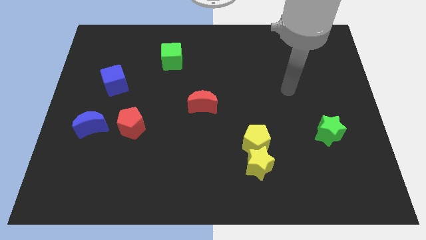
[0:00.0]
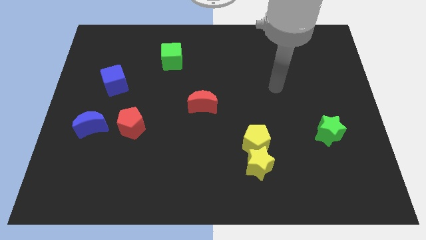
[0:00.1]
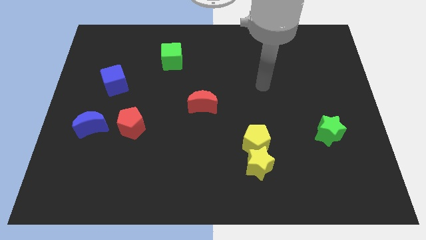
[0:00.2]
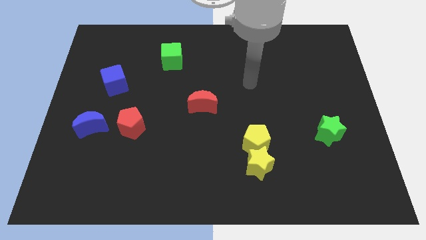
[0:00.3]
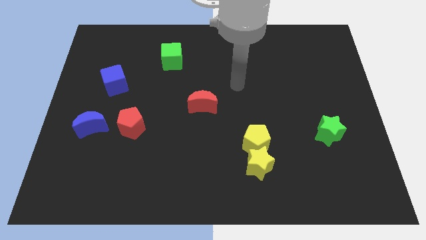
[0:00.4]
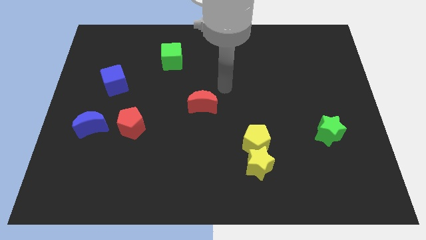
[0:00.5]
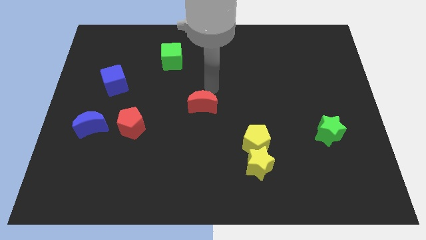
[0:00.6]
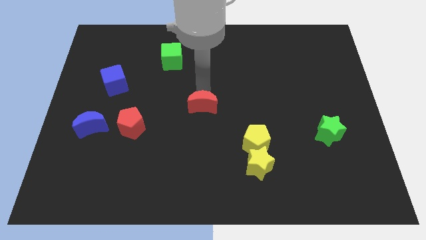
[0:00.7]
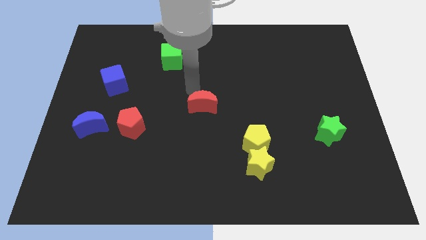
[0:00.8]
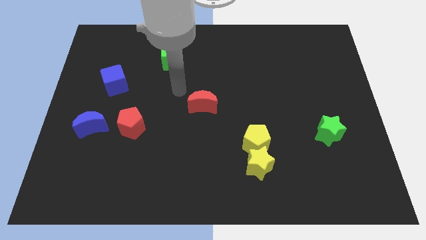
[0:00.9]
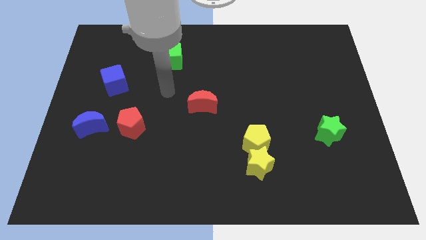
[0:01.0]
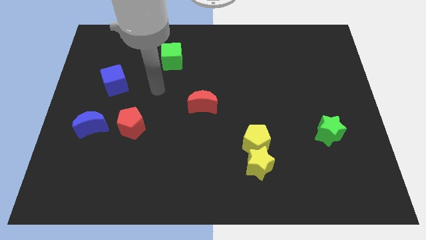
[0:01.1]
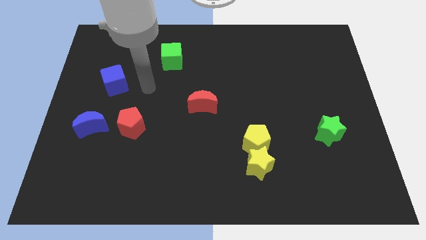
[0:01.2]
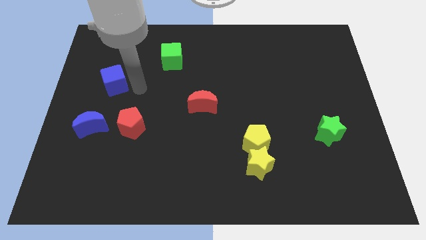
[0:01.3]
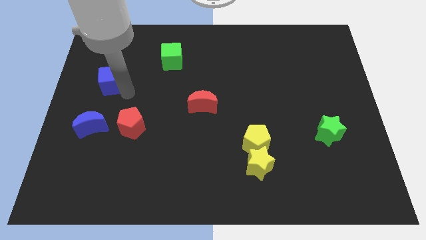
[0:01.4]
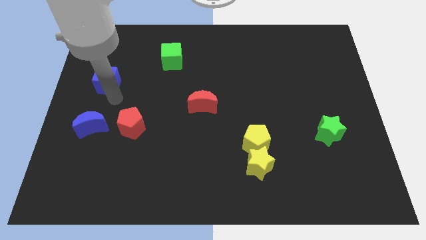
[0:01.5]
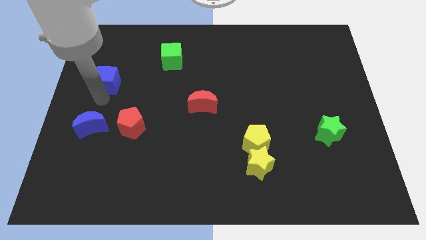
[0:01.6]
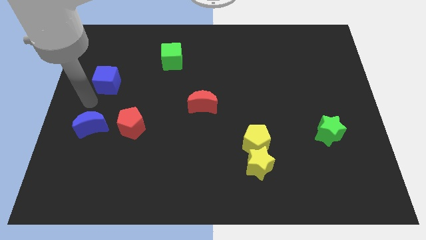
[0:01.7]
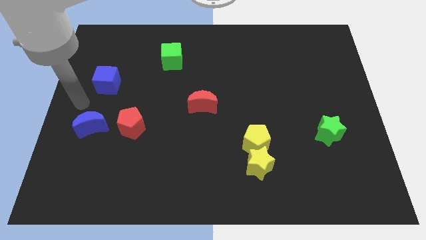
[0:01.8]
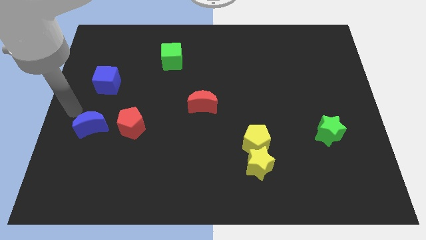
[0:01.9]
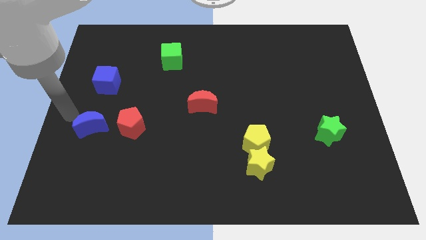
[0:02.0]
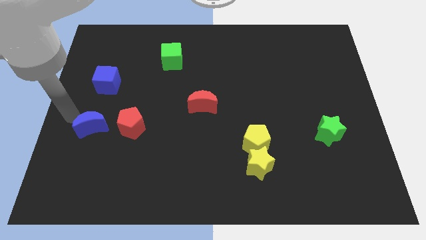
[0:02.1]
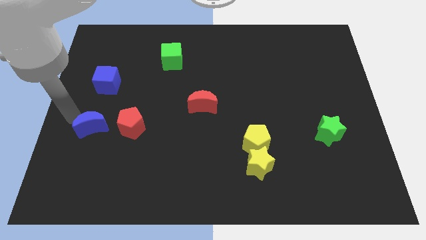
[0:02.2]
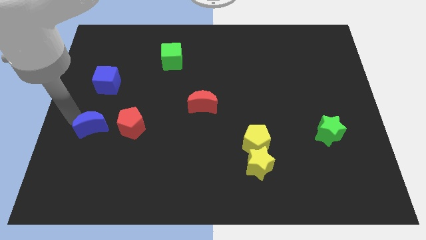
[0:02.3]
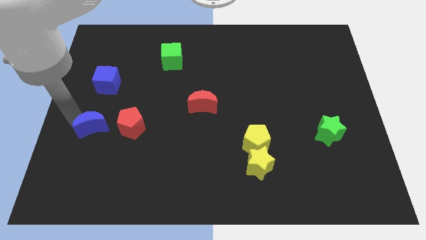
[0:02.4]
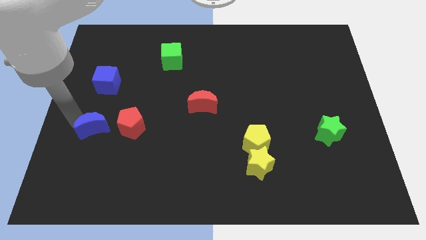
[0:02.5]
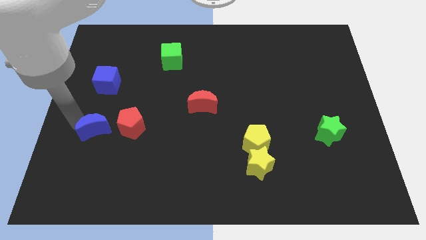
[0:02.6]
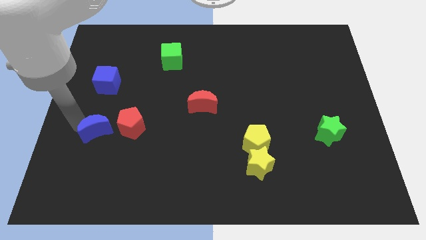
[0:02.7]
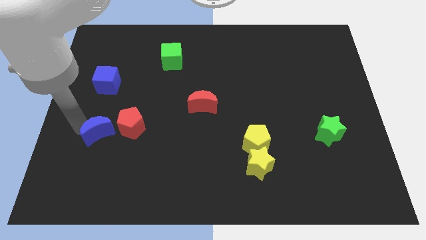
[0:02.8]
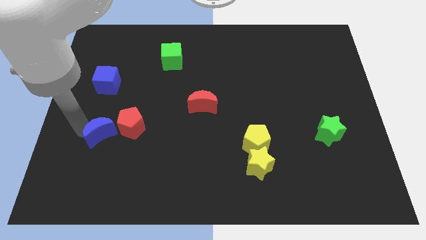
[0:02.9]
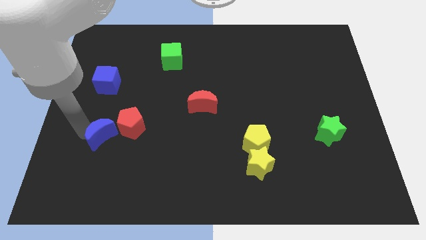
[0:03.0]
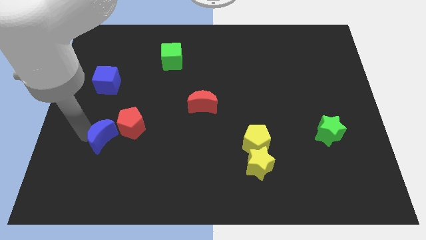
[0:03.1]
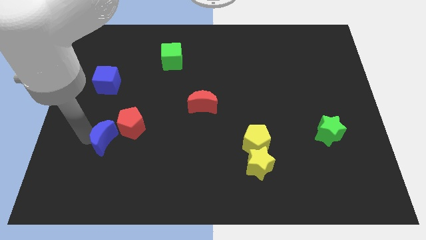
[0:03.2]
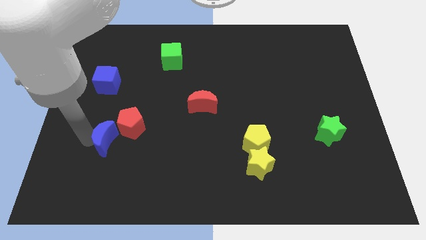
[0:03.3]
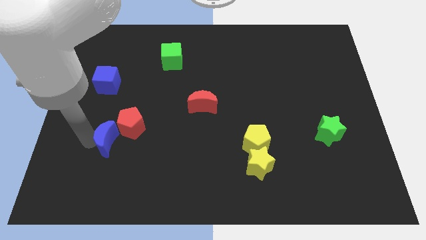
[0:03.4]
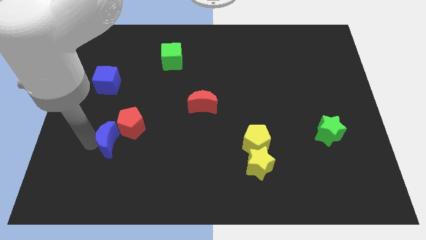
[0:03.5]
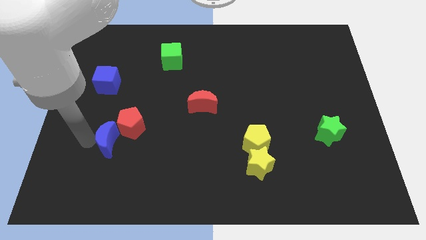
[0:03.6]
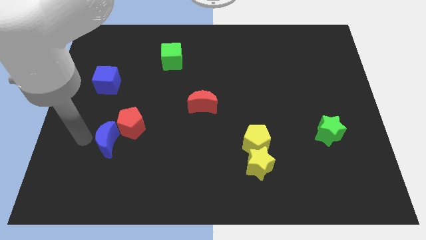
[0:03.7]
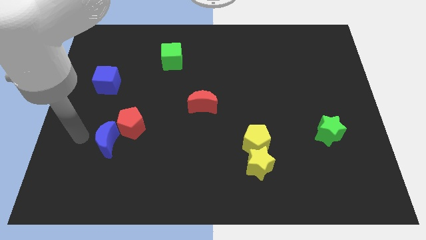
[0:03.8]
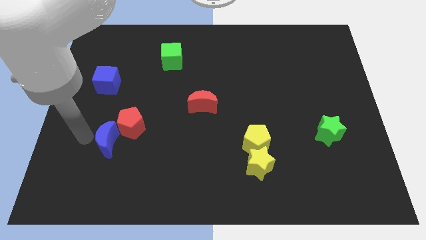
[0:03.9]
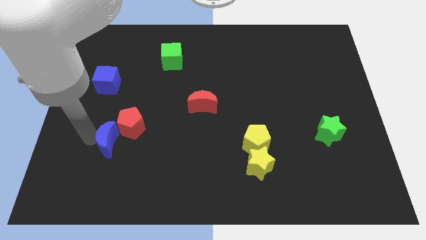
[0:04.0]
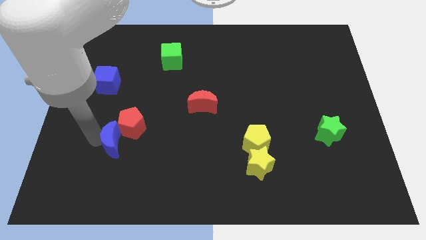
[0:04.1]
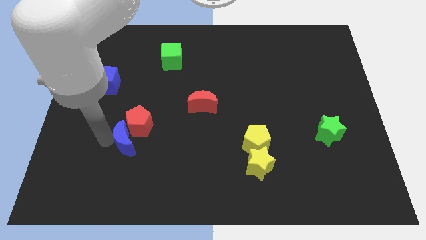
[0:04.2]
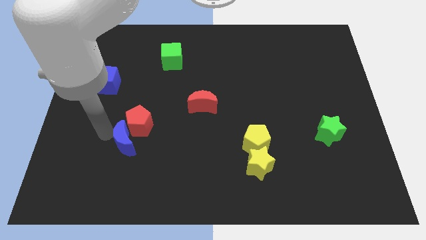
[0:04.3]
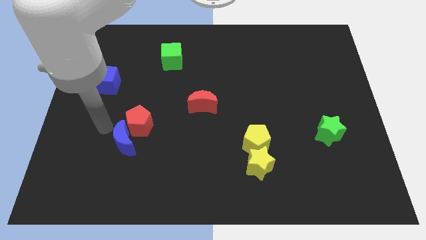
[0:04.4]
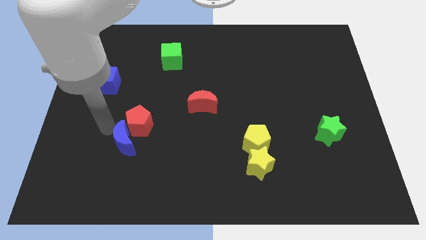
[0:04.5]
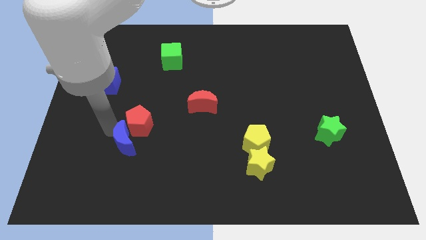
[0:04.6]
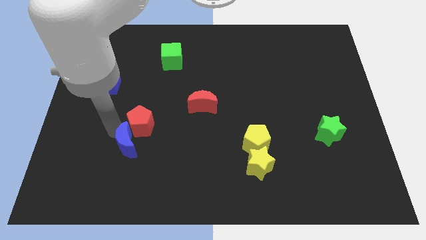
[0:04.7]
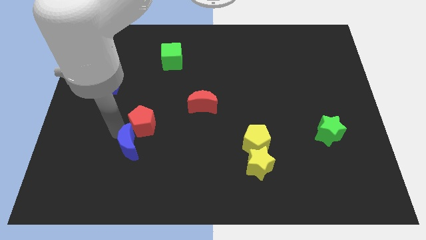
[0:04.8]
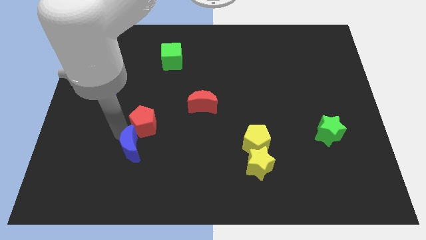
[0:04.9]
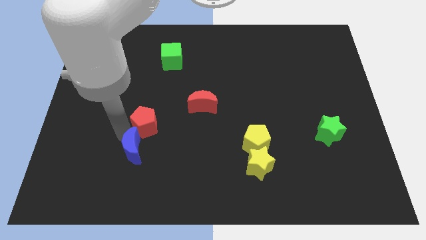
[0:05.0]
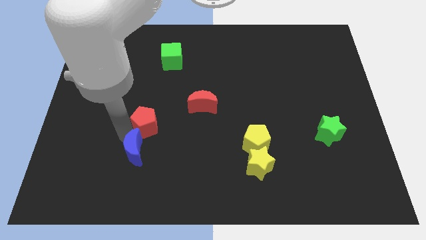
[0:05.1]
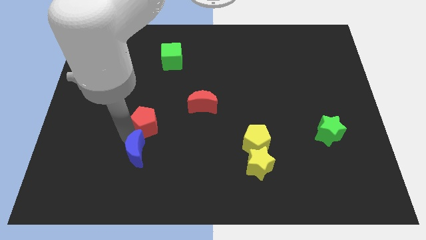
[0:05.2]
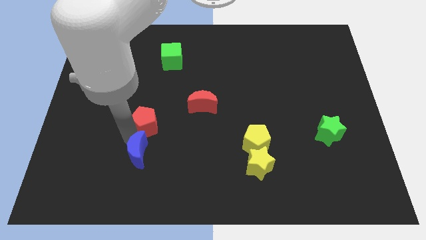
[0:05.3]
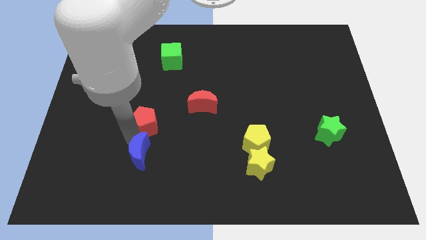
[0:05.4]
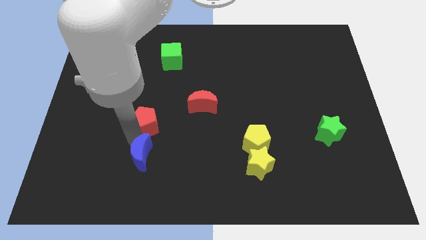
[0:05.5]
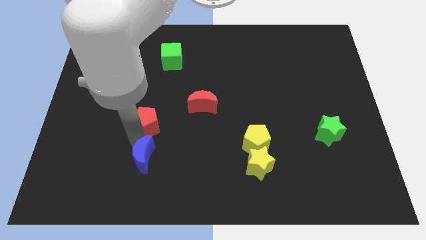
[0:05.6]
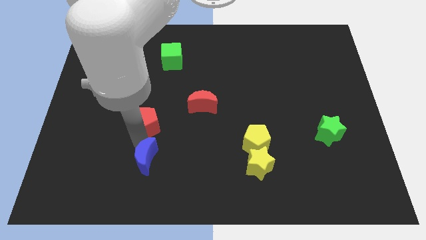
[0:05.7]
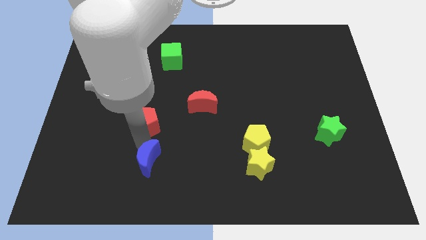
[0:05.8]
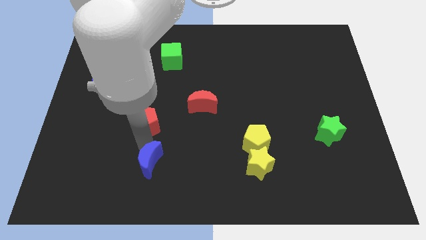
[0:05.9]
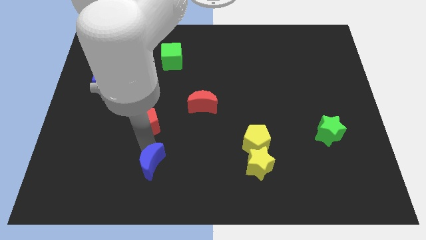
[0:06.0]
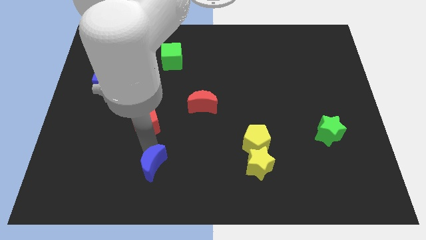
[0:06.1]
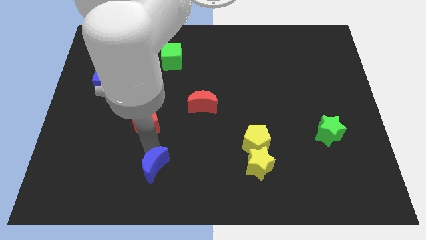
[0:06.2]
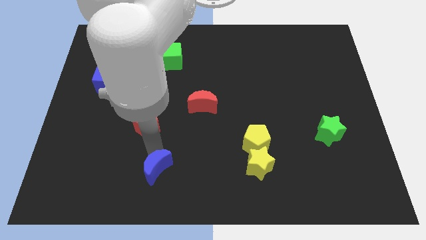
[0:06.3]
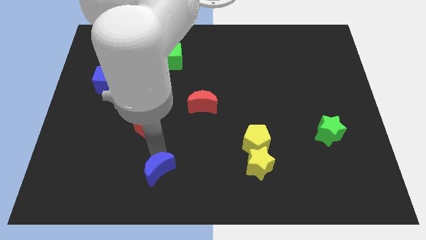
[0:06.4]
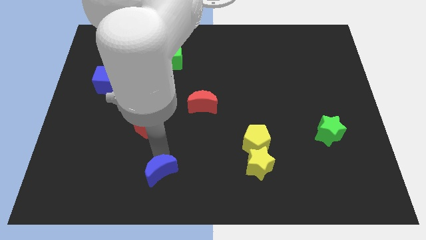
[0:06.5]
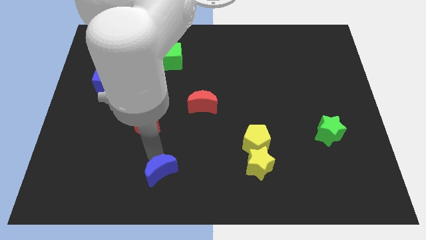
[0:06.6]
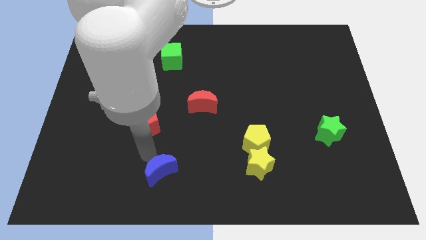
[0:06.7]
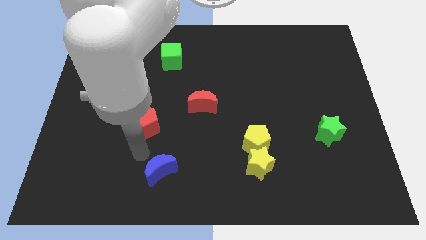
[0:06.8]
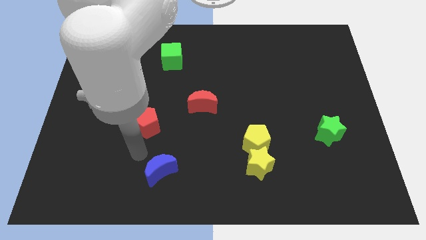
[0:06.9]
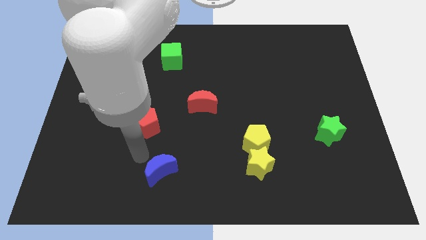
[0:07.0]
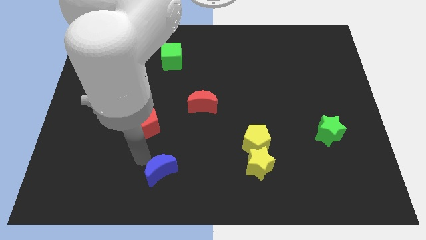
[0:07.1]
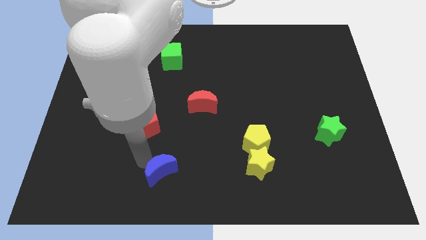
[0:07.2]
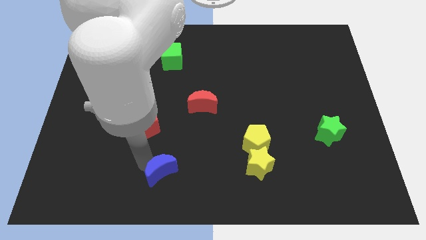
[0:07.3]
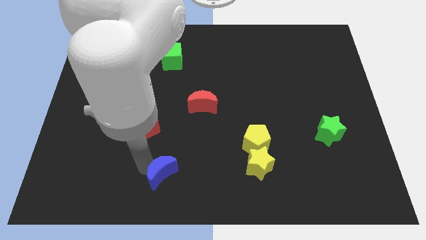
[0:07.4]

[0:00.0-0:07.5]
slide the blue moon to the bottom
